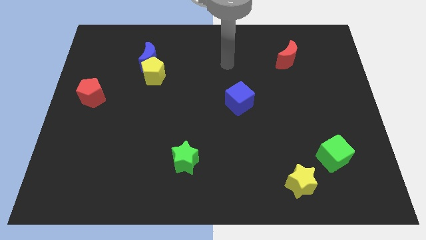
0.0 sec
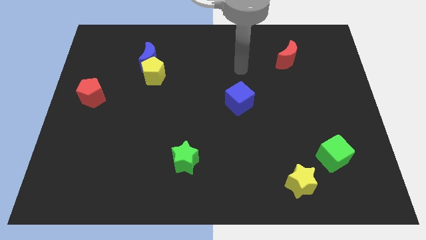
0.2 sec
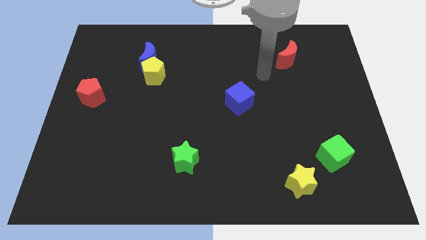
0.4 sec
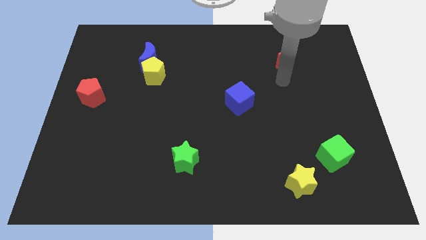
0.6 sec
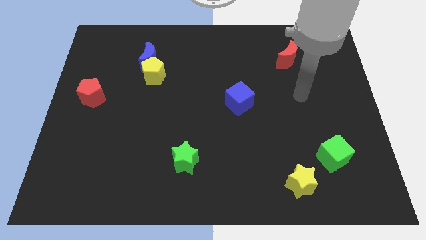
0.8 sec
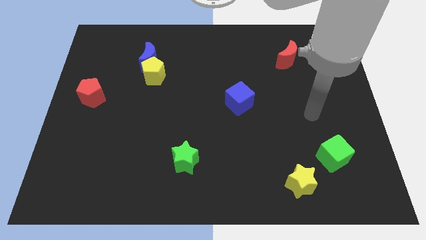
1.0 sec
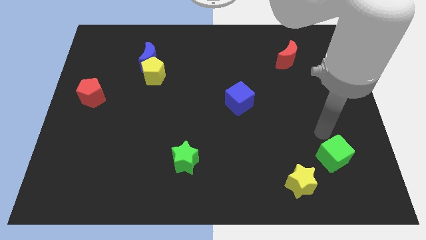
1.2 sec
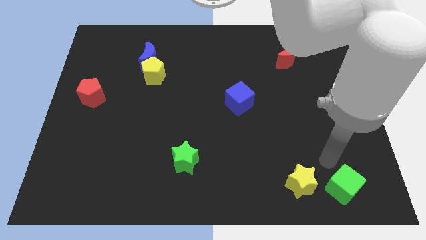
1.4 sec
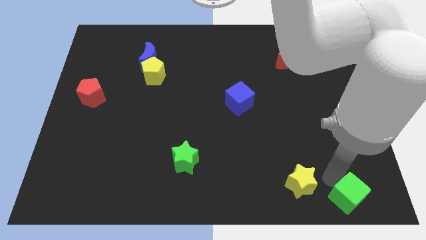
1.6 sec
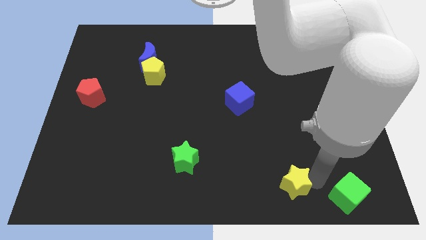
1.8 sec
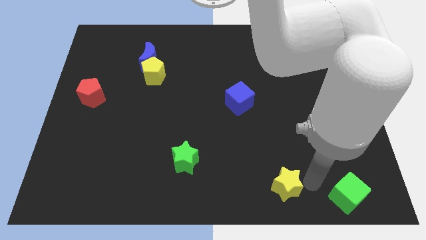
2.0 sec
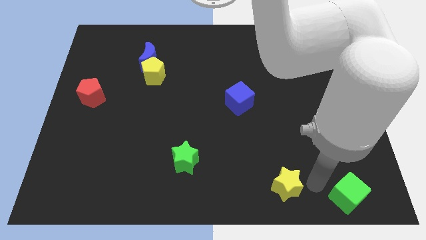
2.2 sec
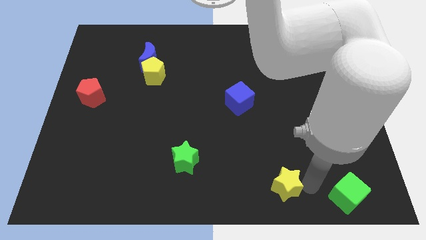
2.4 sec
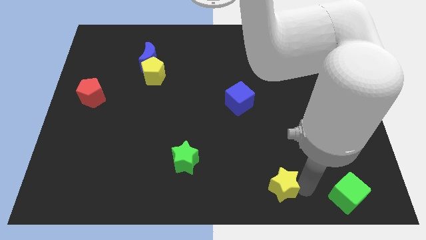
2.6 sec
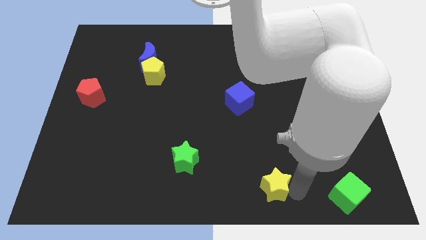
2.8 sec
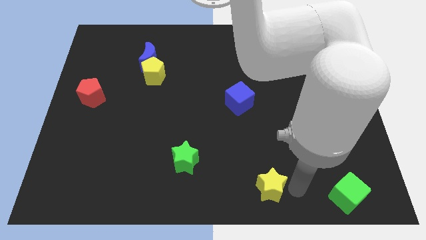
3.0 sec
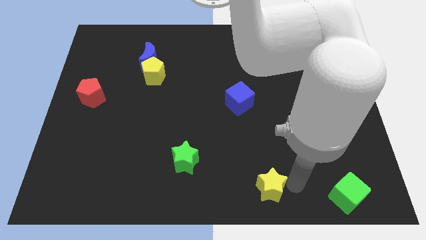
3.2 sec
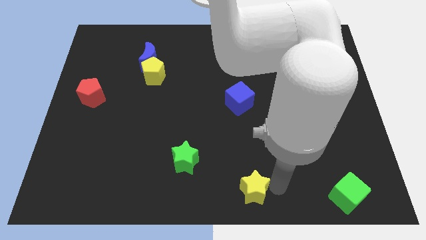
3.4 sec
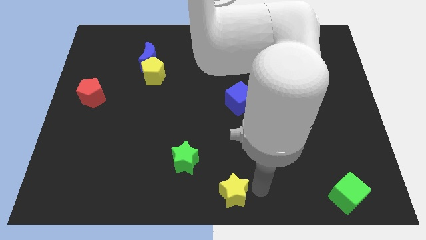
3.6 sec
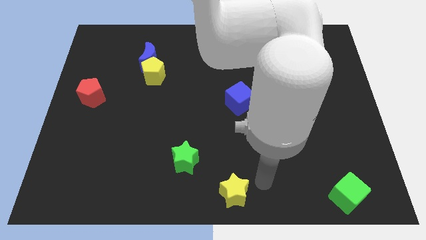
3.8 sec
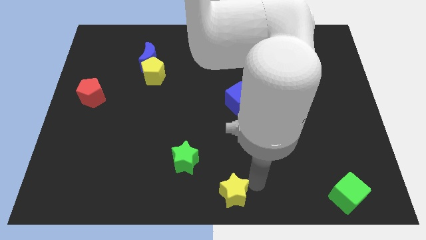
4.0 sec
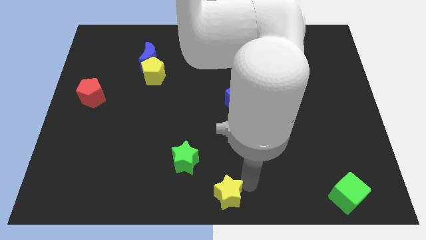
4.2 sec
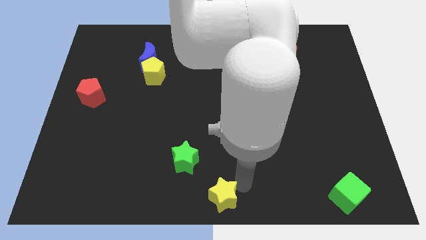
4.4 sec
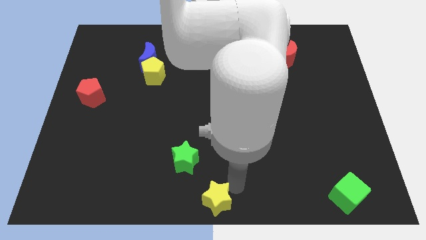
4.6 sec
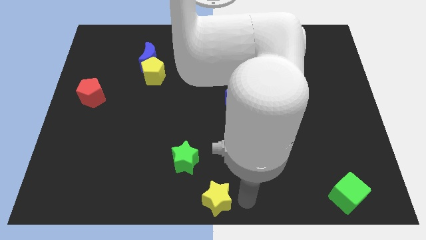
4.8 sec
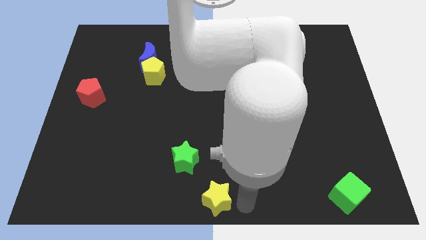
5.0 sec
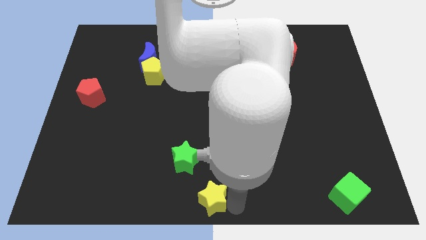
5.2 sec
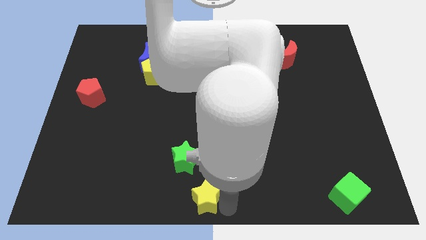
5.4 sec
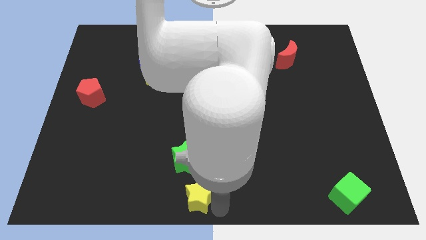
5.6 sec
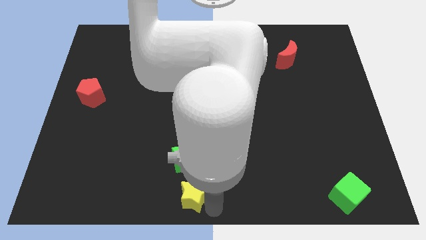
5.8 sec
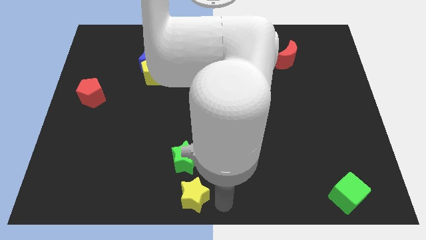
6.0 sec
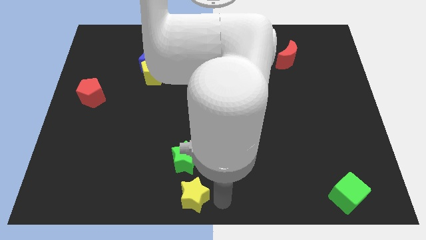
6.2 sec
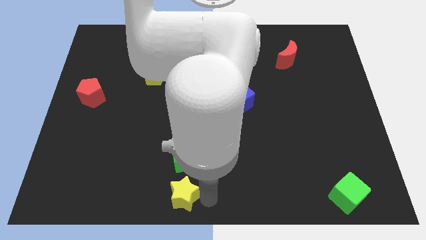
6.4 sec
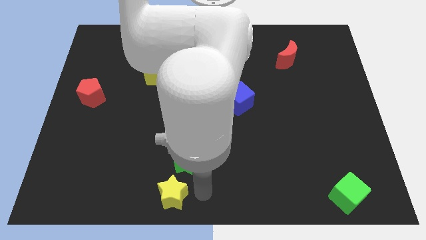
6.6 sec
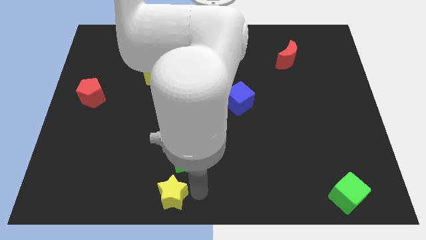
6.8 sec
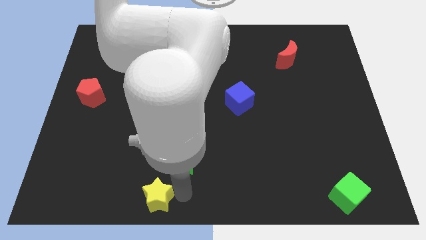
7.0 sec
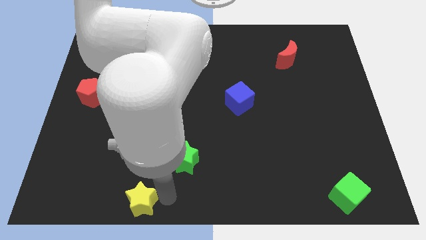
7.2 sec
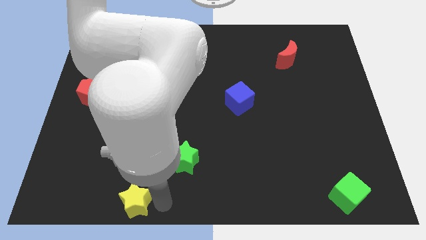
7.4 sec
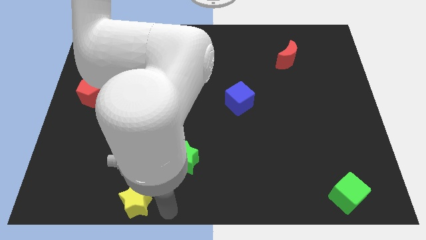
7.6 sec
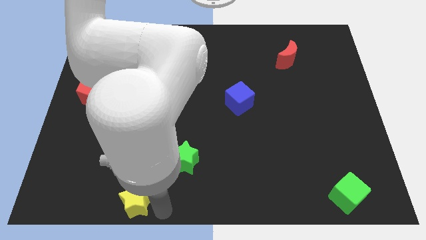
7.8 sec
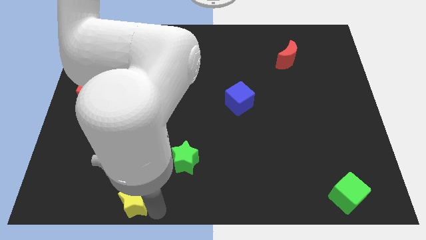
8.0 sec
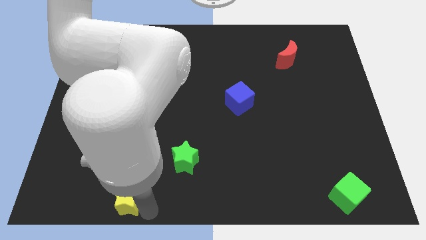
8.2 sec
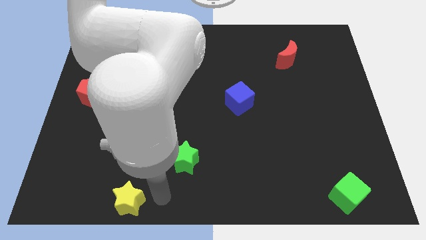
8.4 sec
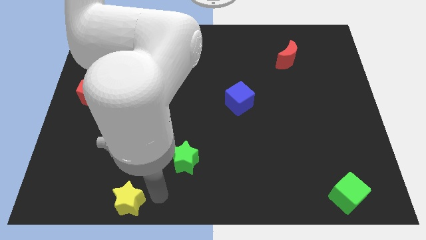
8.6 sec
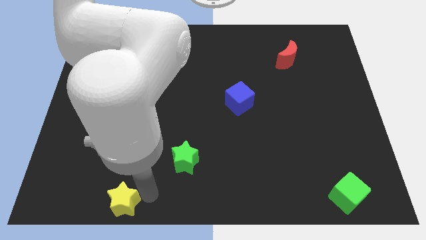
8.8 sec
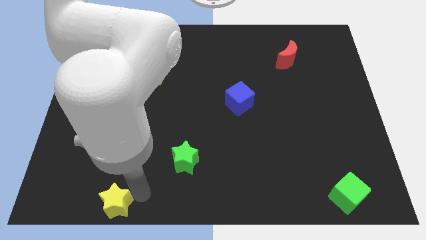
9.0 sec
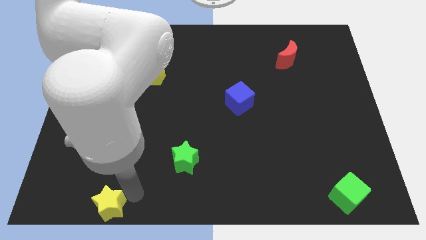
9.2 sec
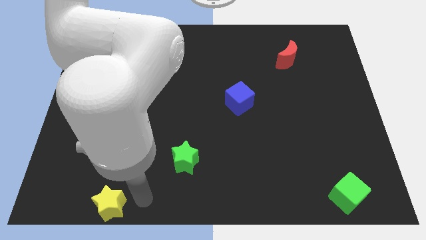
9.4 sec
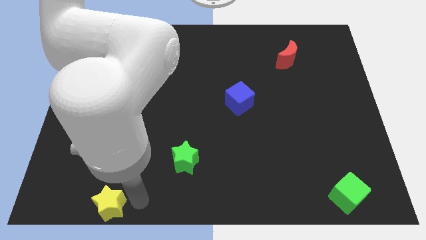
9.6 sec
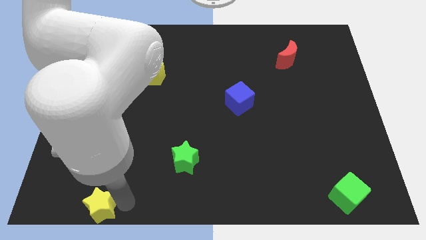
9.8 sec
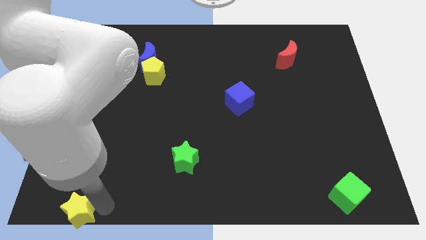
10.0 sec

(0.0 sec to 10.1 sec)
put the yellow star to the bottom left

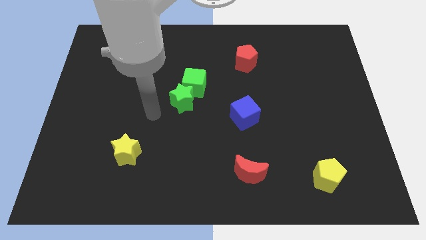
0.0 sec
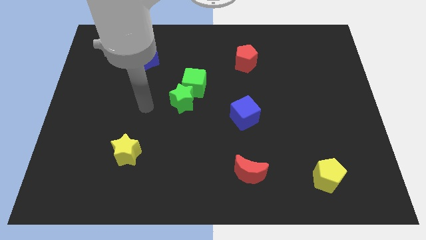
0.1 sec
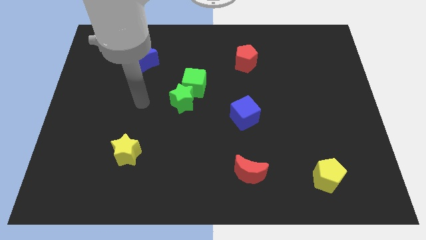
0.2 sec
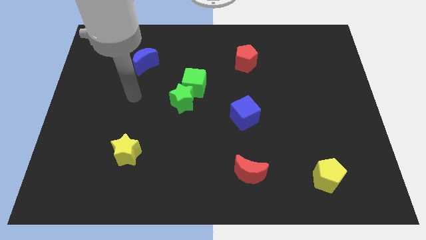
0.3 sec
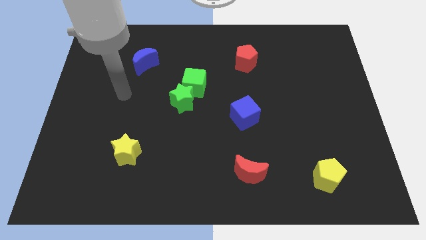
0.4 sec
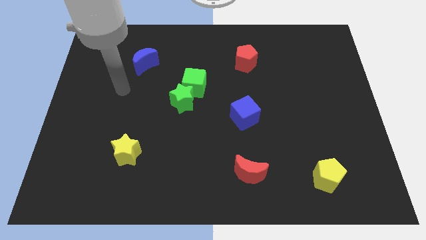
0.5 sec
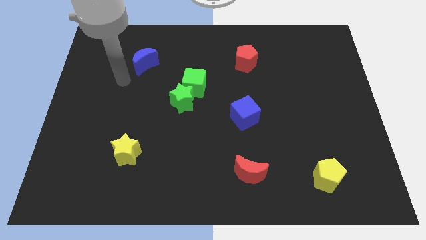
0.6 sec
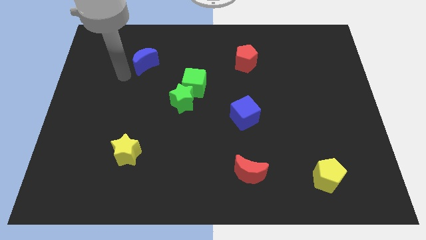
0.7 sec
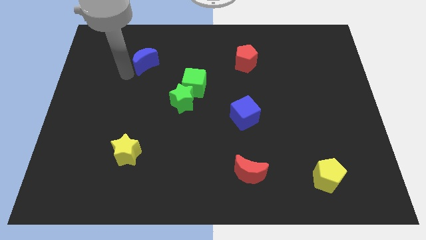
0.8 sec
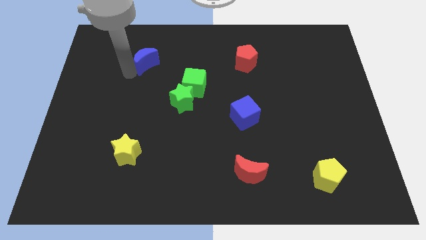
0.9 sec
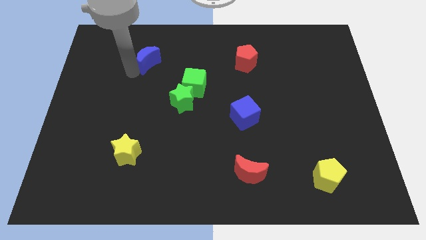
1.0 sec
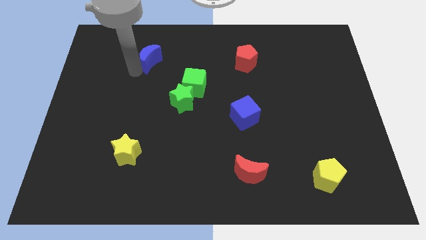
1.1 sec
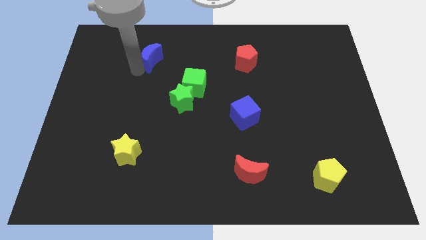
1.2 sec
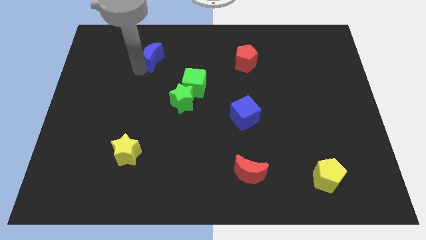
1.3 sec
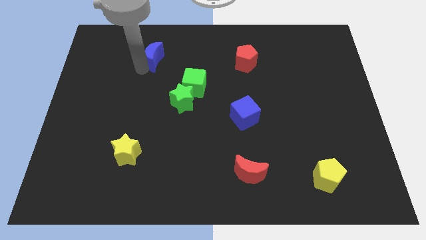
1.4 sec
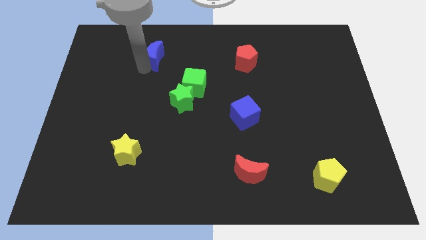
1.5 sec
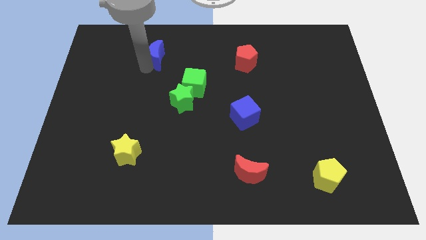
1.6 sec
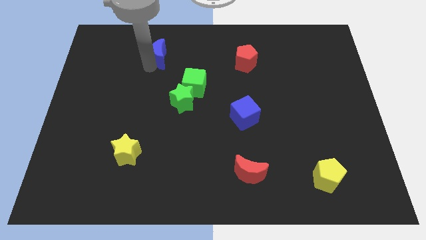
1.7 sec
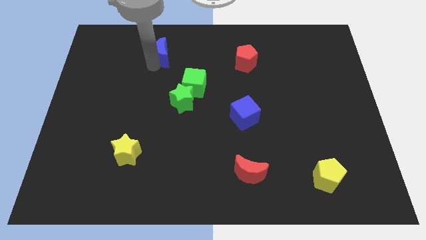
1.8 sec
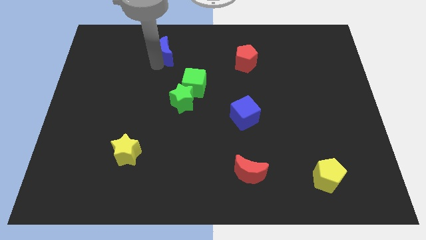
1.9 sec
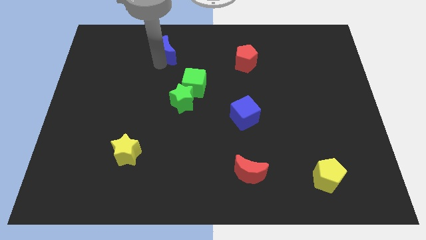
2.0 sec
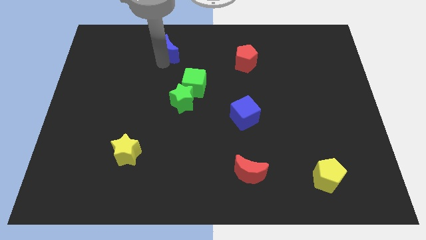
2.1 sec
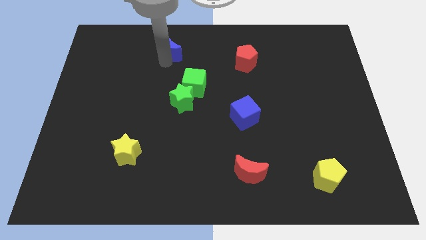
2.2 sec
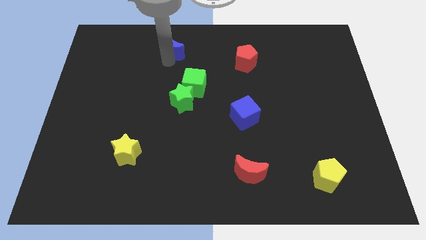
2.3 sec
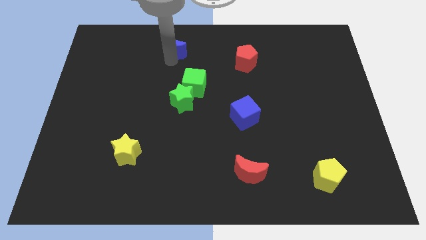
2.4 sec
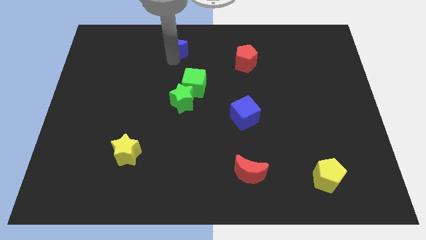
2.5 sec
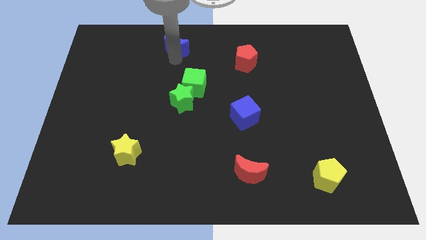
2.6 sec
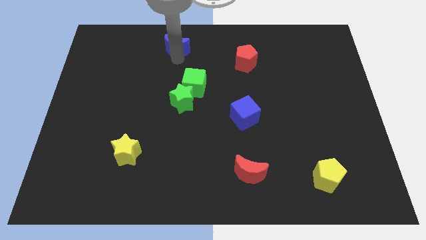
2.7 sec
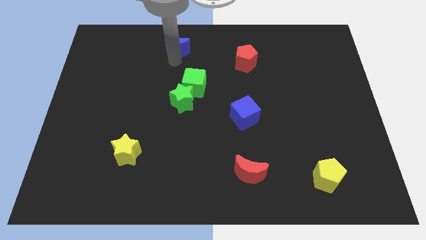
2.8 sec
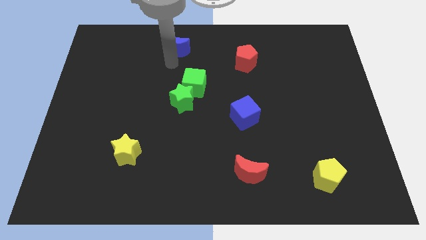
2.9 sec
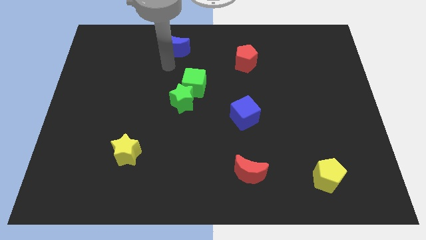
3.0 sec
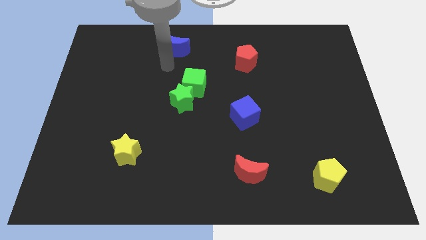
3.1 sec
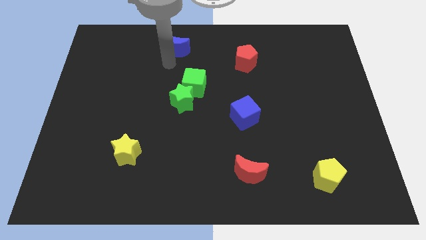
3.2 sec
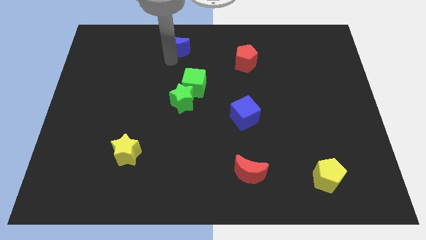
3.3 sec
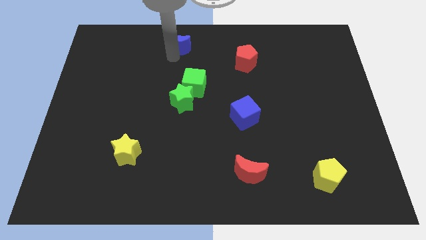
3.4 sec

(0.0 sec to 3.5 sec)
put the blue moon to the top
